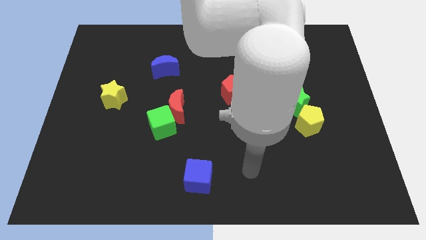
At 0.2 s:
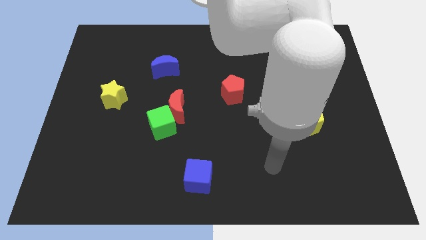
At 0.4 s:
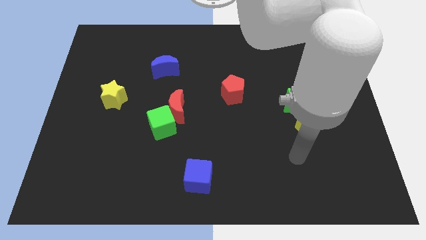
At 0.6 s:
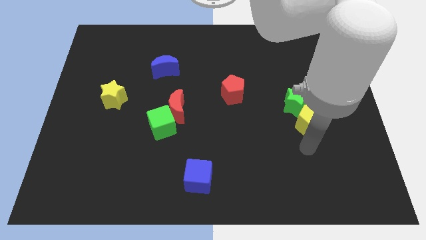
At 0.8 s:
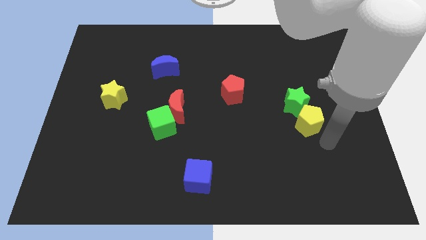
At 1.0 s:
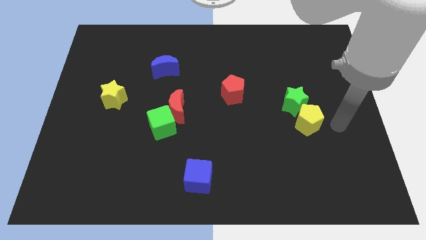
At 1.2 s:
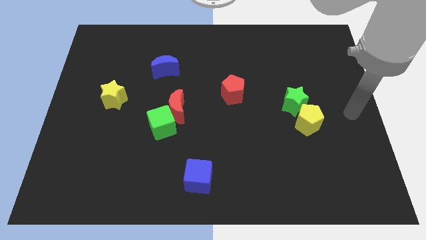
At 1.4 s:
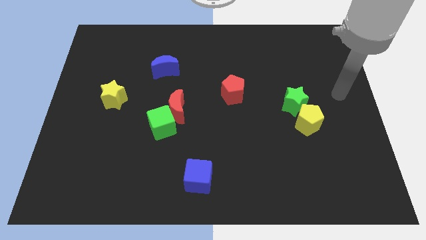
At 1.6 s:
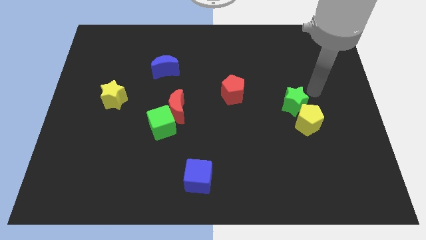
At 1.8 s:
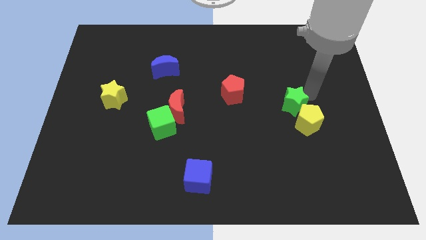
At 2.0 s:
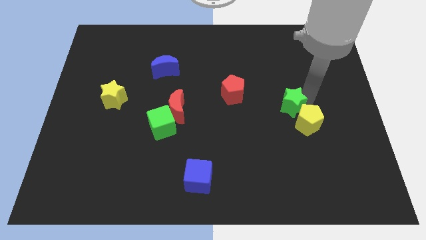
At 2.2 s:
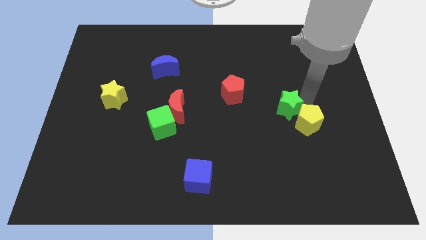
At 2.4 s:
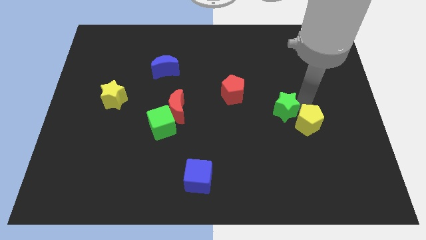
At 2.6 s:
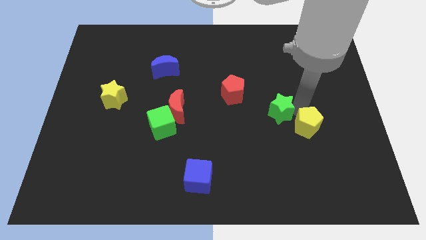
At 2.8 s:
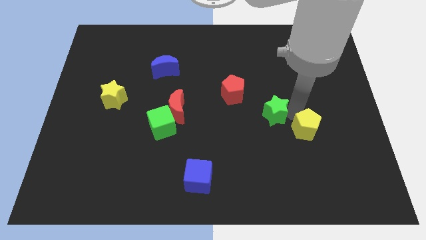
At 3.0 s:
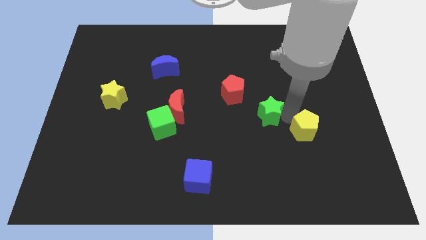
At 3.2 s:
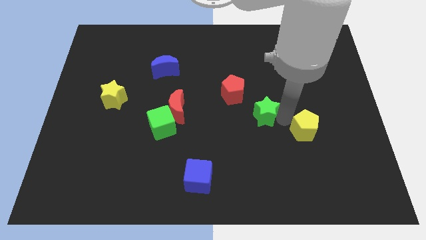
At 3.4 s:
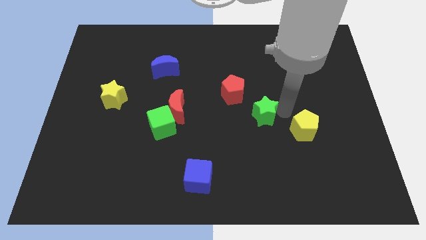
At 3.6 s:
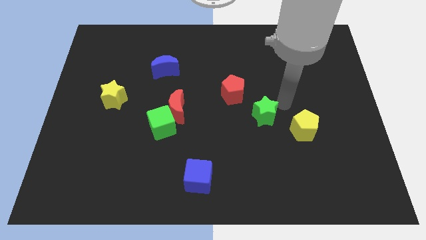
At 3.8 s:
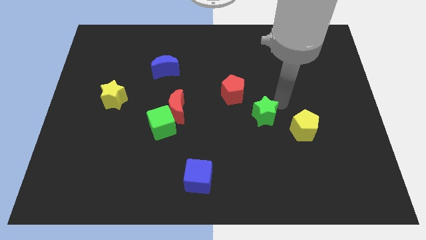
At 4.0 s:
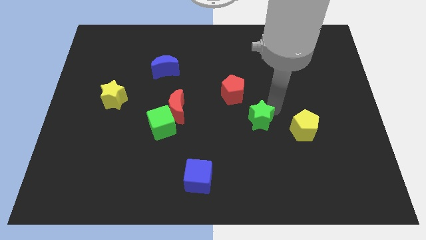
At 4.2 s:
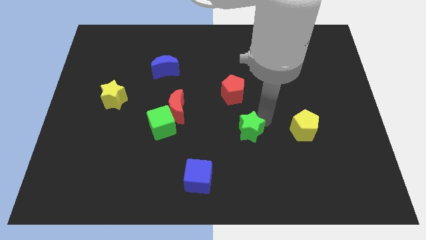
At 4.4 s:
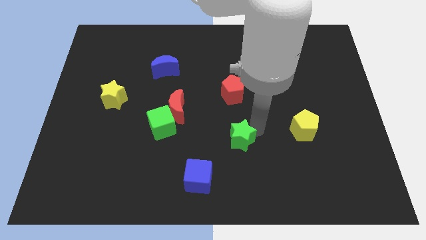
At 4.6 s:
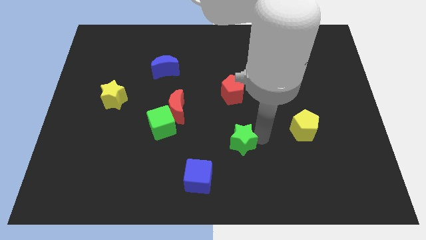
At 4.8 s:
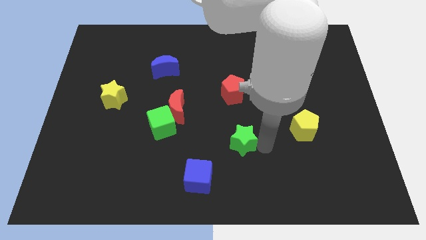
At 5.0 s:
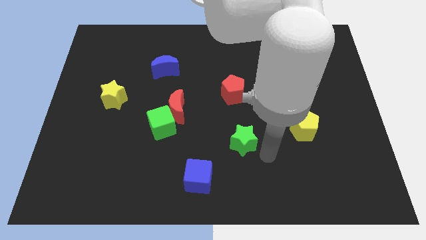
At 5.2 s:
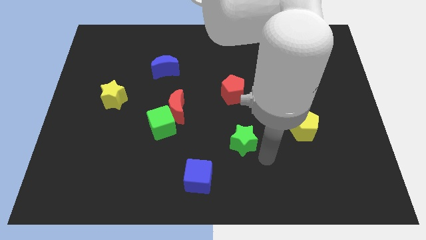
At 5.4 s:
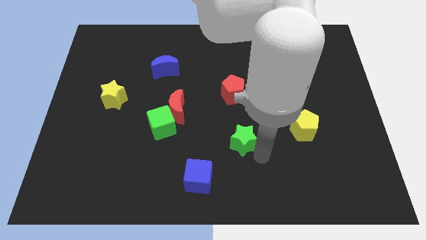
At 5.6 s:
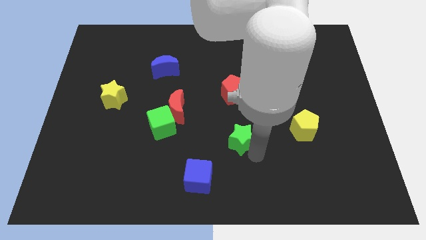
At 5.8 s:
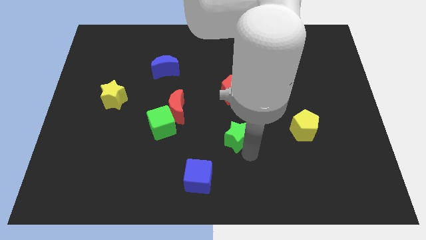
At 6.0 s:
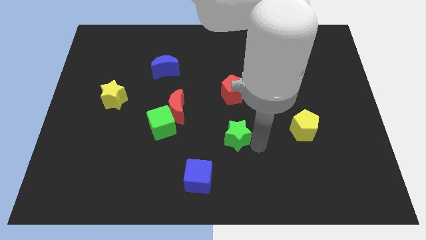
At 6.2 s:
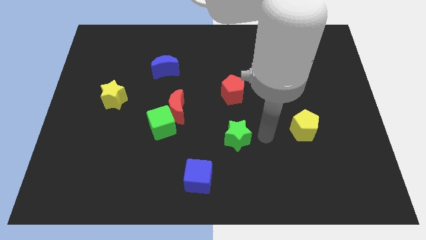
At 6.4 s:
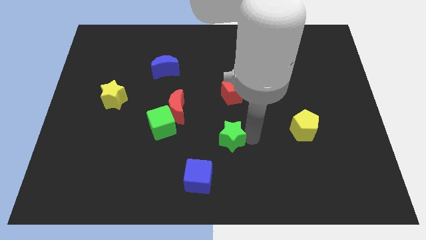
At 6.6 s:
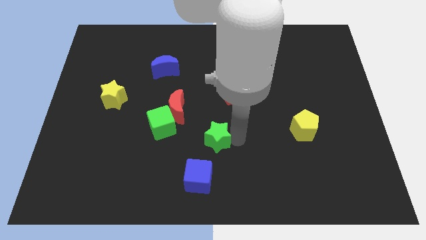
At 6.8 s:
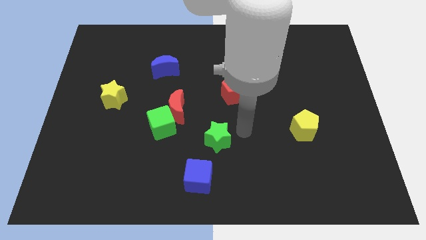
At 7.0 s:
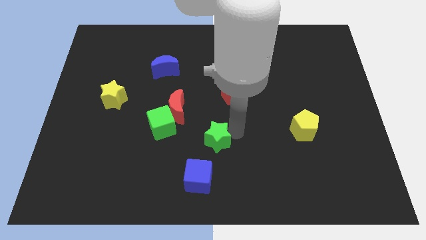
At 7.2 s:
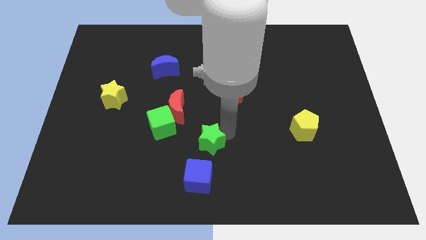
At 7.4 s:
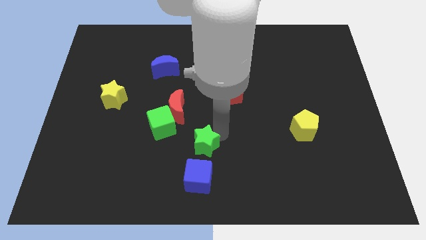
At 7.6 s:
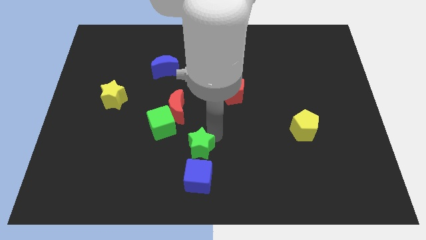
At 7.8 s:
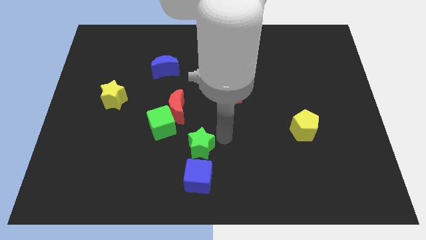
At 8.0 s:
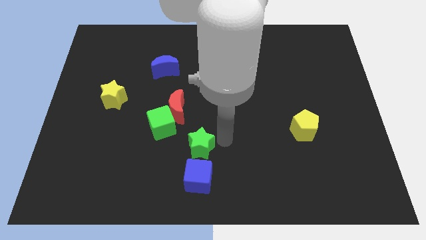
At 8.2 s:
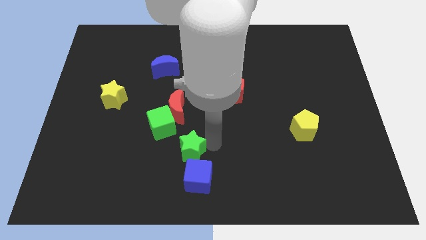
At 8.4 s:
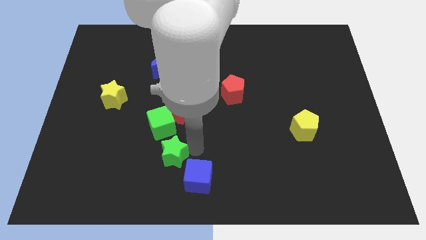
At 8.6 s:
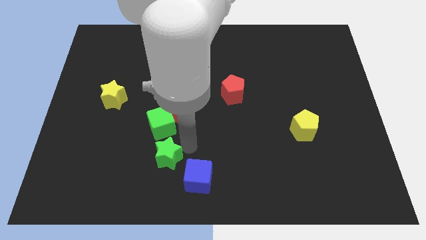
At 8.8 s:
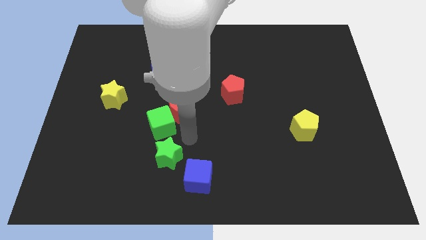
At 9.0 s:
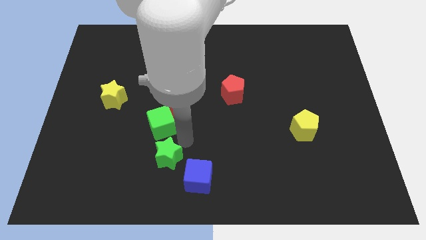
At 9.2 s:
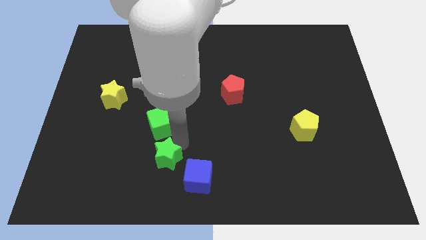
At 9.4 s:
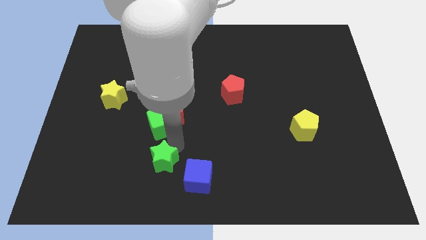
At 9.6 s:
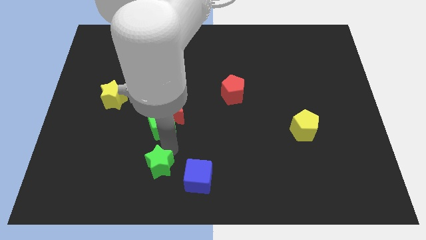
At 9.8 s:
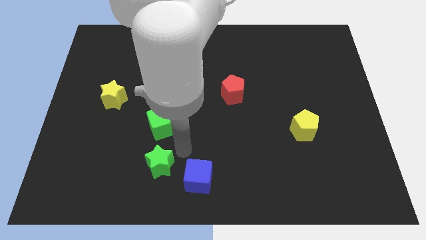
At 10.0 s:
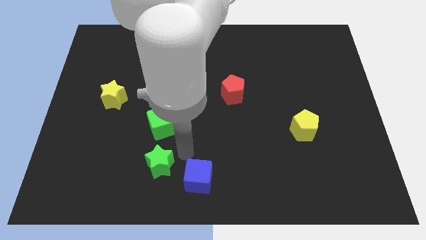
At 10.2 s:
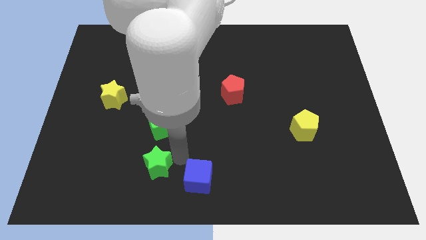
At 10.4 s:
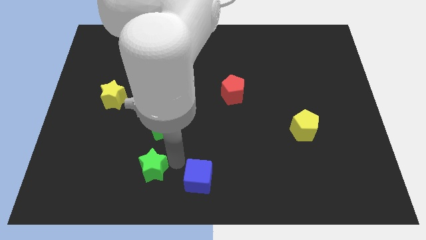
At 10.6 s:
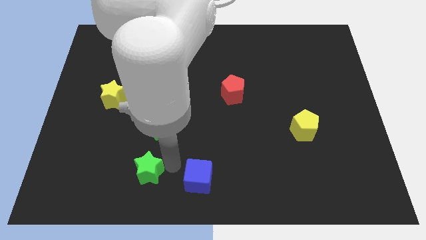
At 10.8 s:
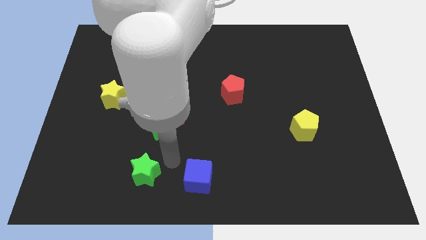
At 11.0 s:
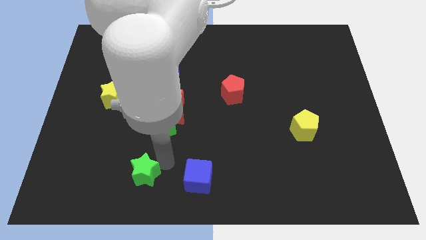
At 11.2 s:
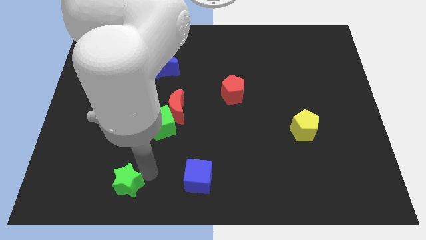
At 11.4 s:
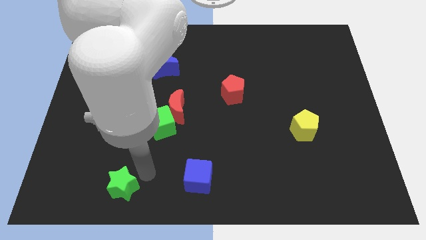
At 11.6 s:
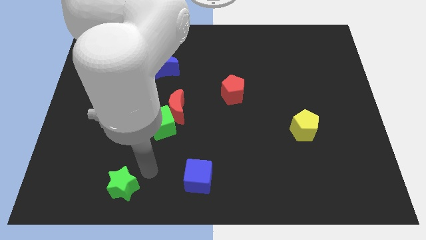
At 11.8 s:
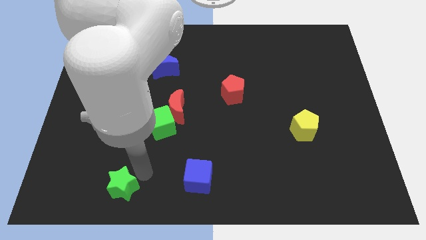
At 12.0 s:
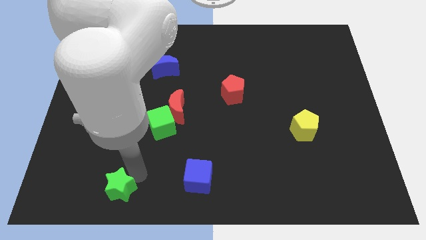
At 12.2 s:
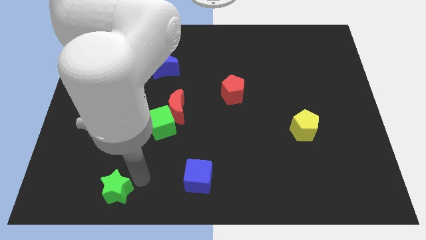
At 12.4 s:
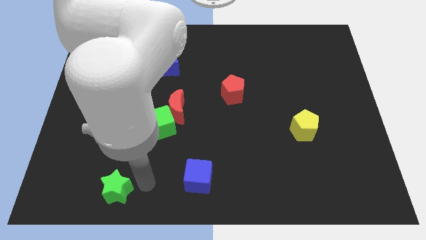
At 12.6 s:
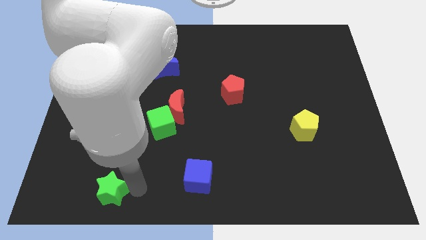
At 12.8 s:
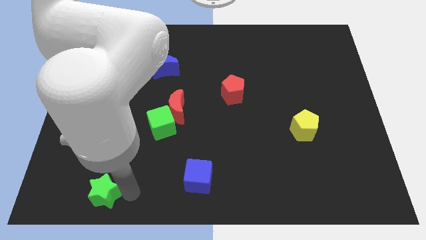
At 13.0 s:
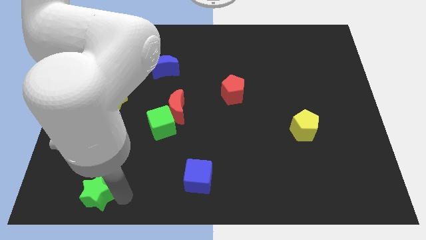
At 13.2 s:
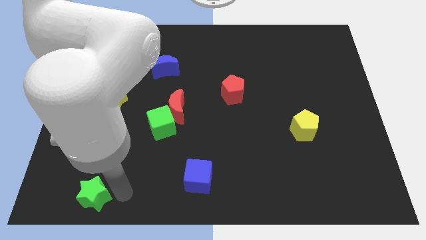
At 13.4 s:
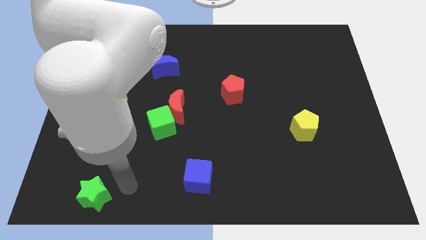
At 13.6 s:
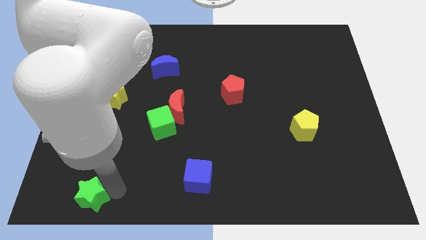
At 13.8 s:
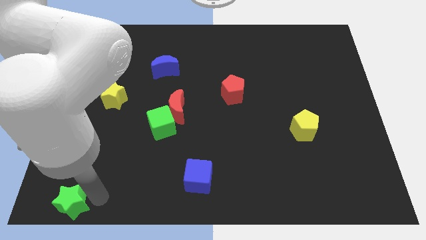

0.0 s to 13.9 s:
push the green star to the bottom left of the board
